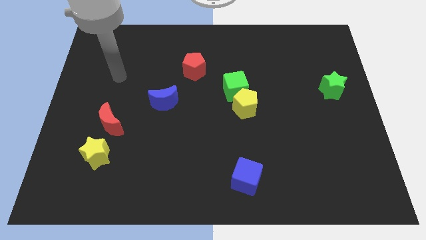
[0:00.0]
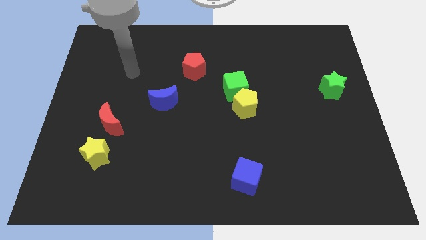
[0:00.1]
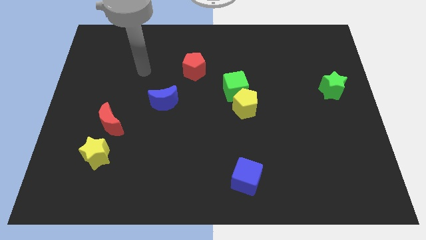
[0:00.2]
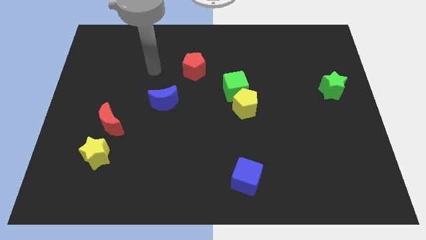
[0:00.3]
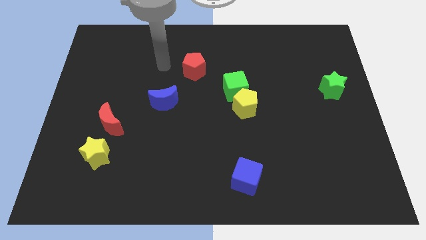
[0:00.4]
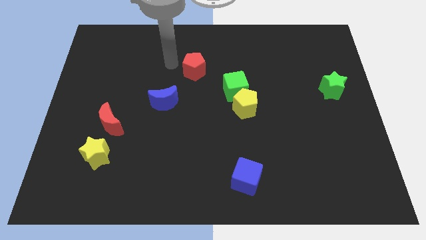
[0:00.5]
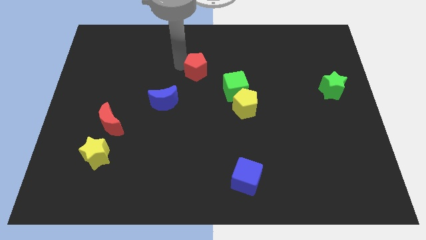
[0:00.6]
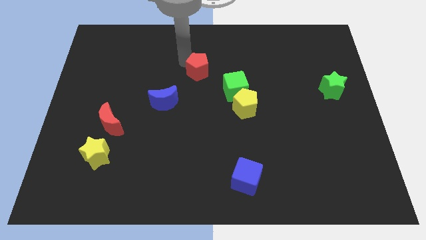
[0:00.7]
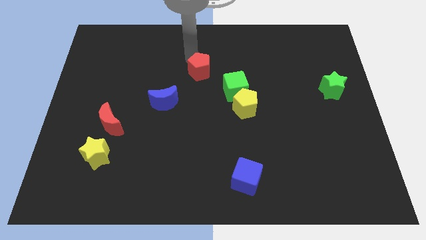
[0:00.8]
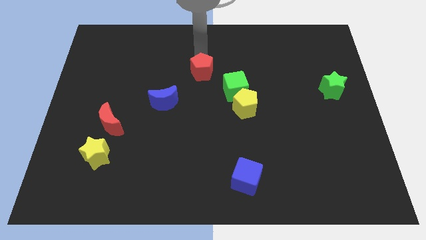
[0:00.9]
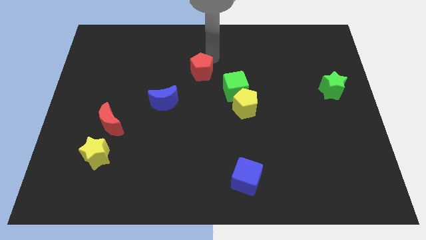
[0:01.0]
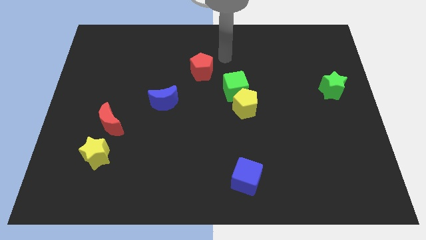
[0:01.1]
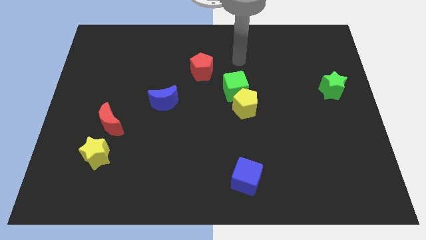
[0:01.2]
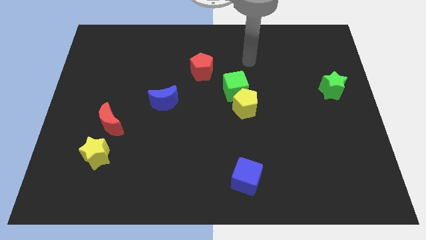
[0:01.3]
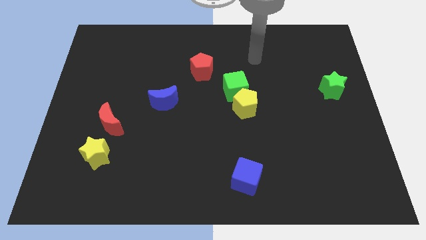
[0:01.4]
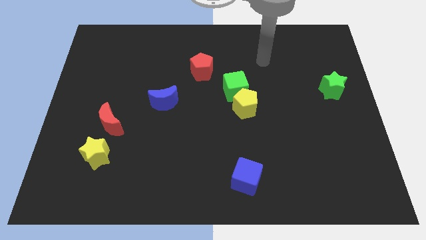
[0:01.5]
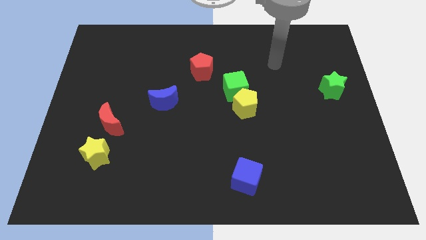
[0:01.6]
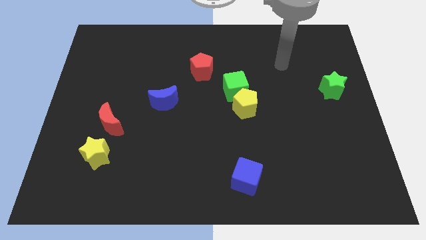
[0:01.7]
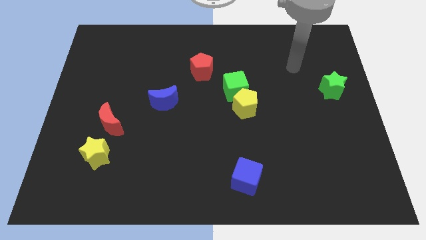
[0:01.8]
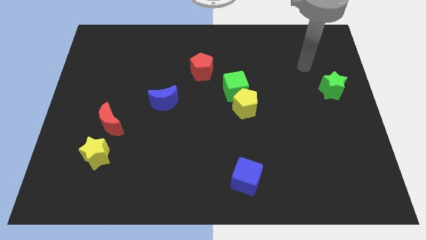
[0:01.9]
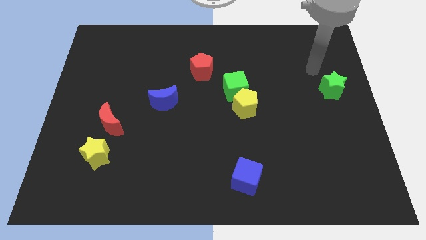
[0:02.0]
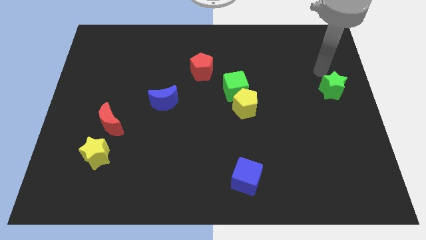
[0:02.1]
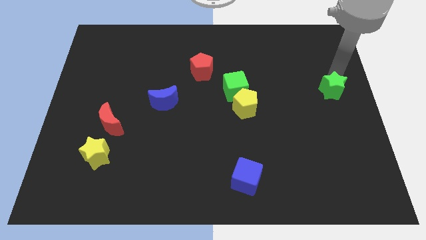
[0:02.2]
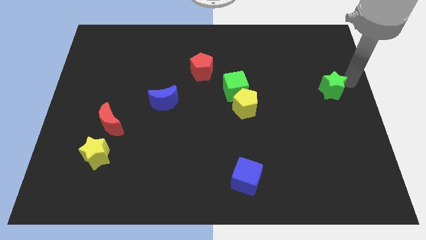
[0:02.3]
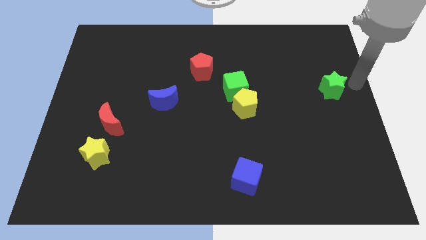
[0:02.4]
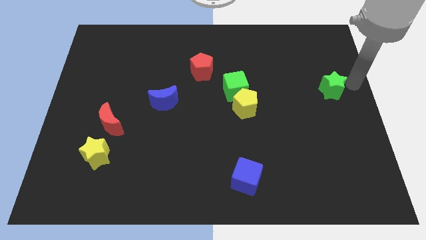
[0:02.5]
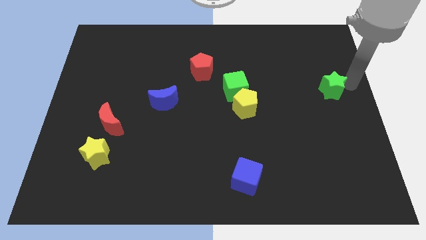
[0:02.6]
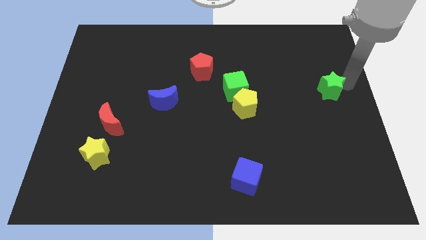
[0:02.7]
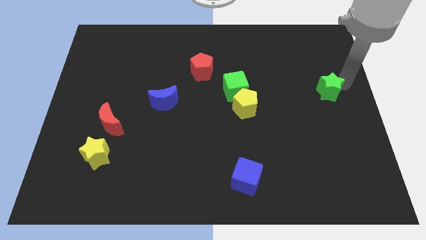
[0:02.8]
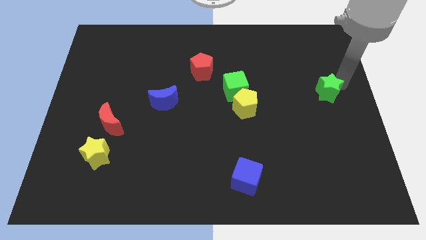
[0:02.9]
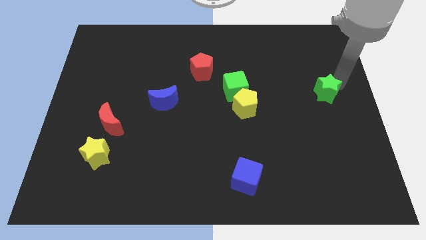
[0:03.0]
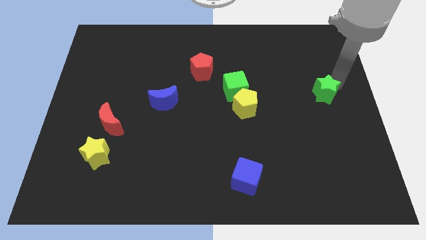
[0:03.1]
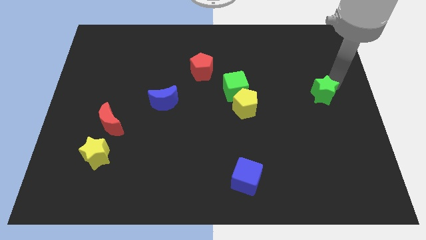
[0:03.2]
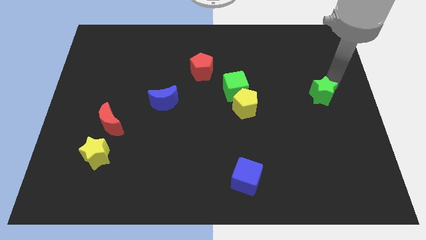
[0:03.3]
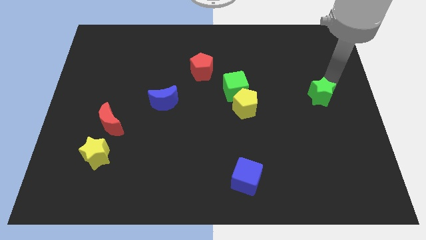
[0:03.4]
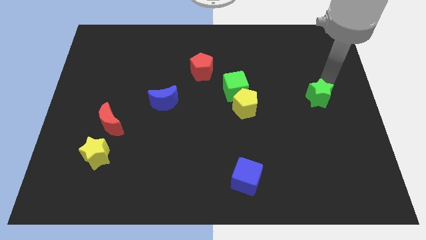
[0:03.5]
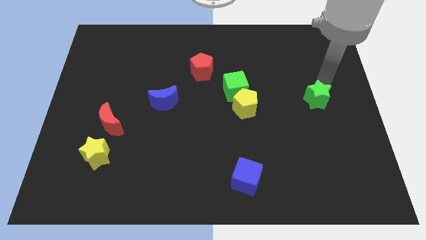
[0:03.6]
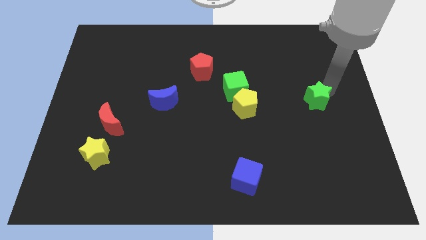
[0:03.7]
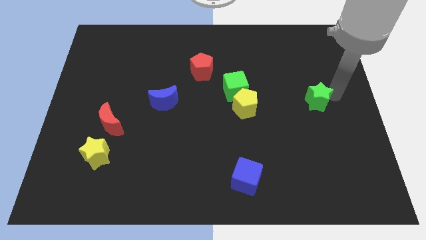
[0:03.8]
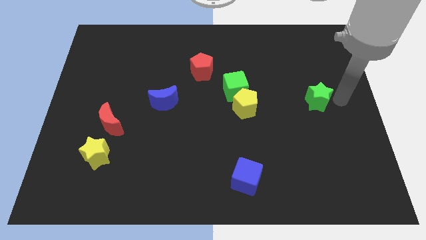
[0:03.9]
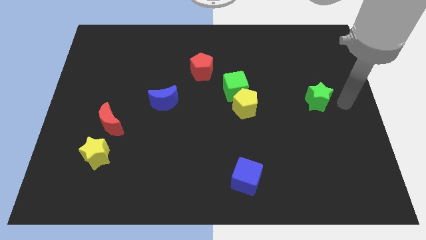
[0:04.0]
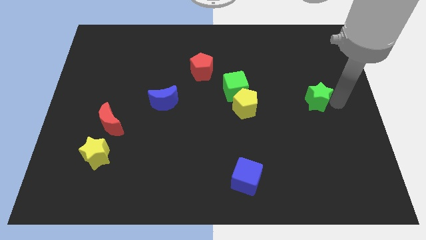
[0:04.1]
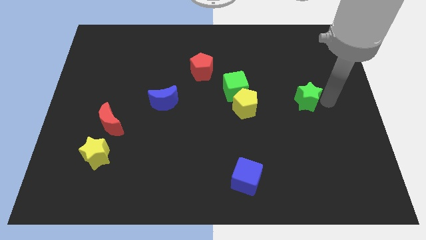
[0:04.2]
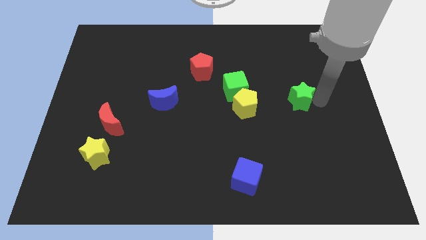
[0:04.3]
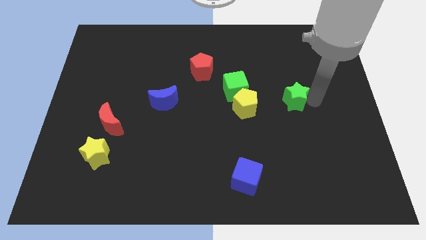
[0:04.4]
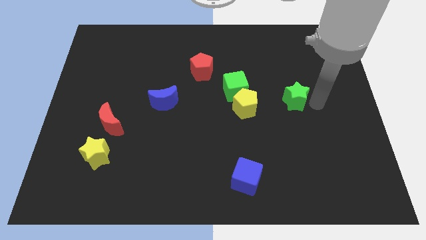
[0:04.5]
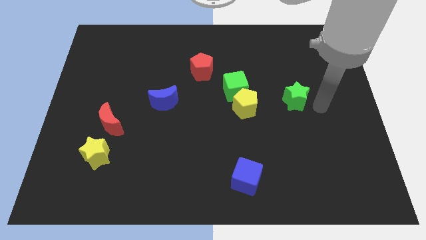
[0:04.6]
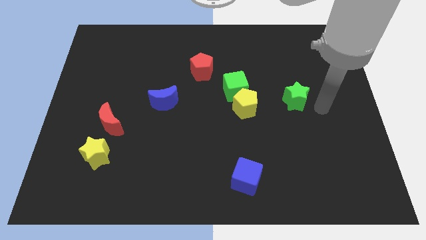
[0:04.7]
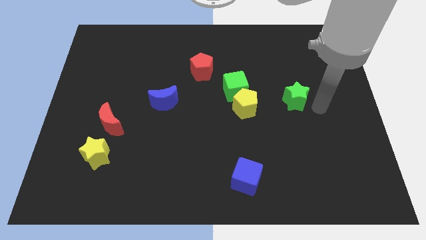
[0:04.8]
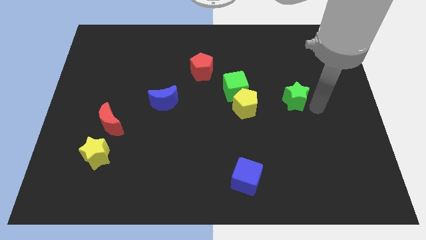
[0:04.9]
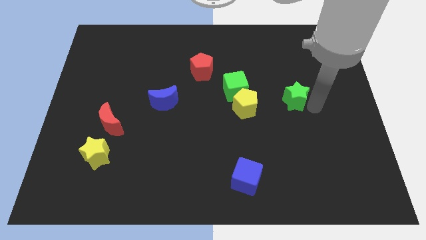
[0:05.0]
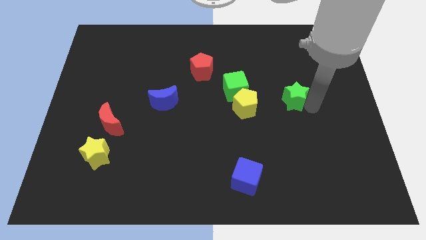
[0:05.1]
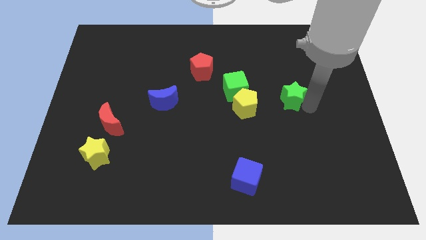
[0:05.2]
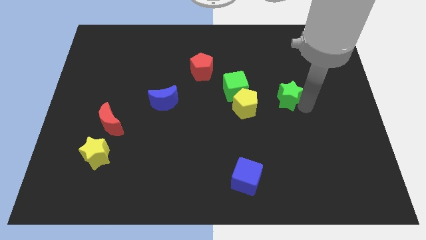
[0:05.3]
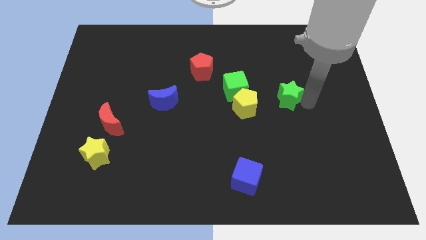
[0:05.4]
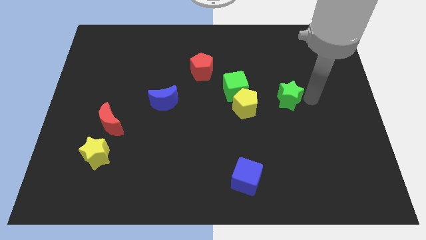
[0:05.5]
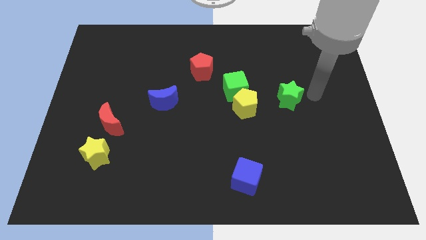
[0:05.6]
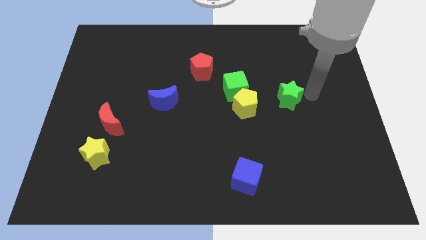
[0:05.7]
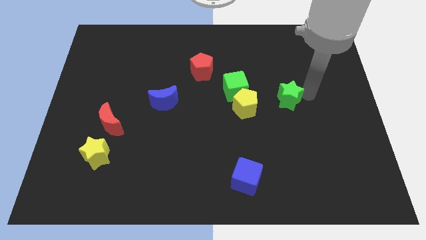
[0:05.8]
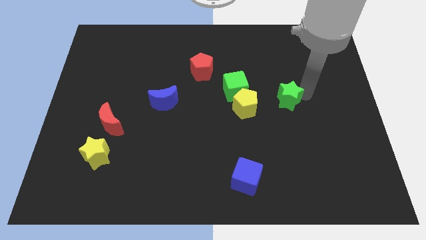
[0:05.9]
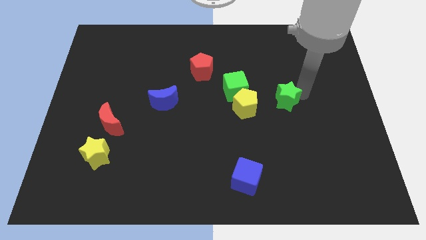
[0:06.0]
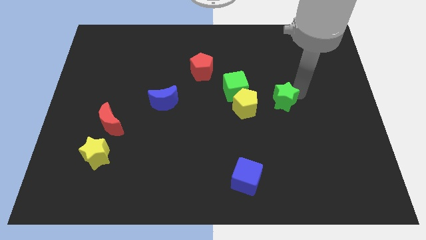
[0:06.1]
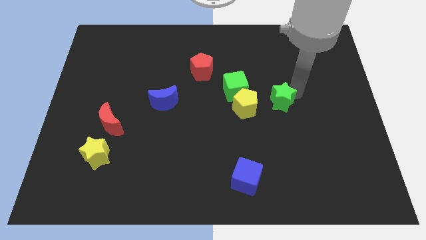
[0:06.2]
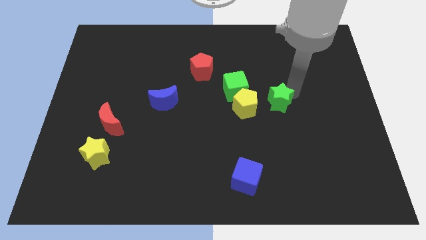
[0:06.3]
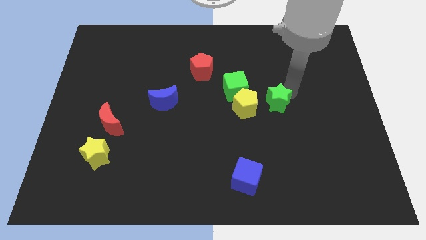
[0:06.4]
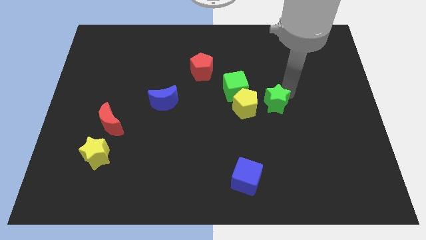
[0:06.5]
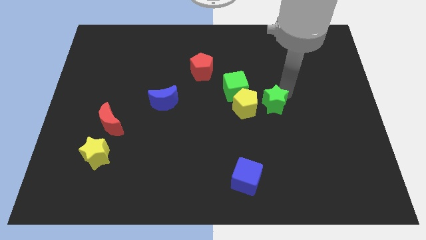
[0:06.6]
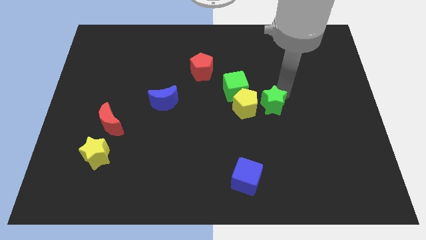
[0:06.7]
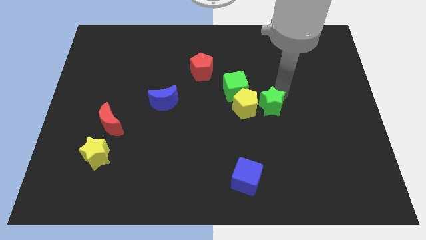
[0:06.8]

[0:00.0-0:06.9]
put the green star close to the yellow pentagon
